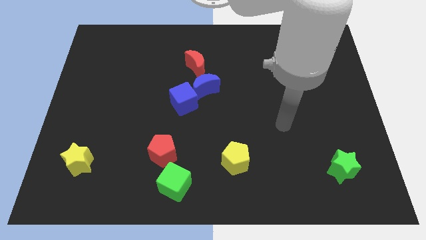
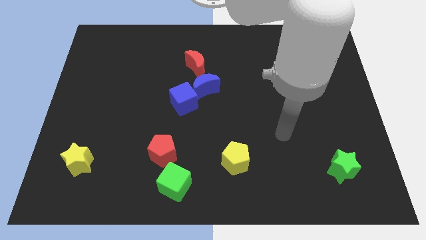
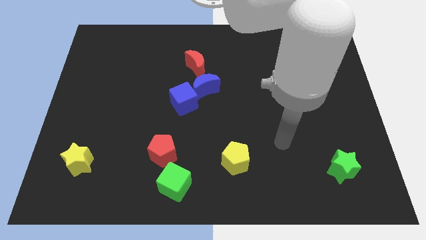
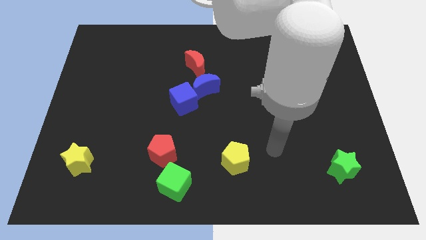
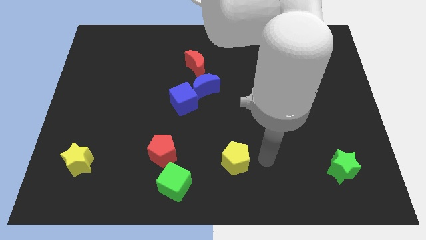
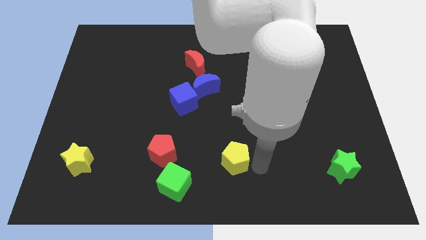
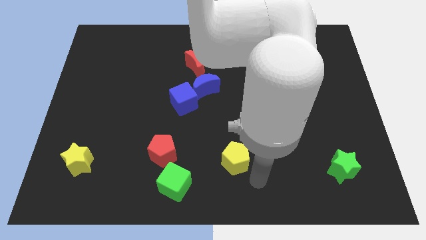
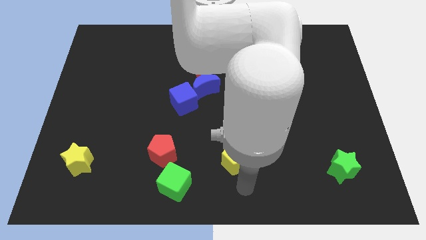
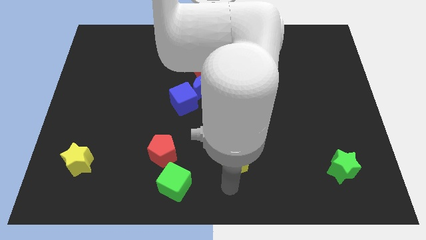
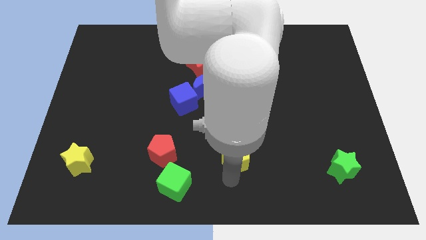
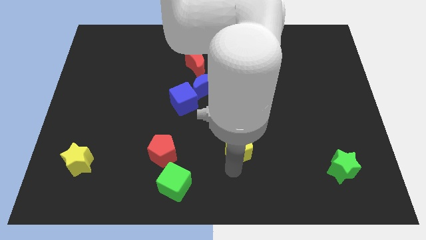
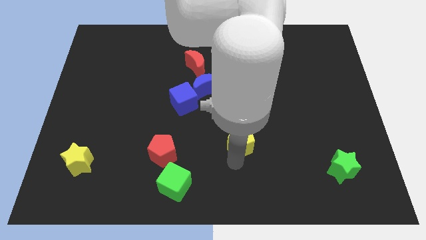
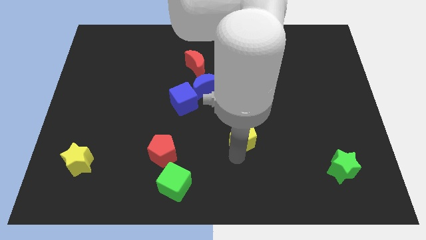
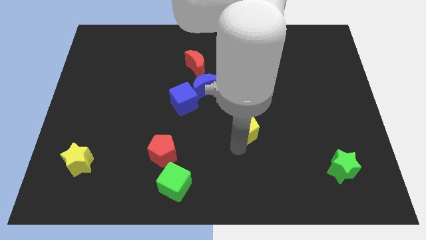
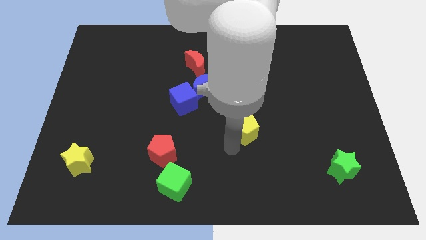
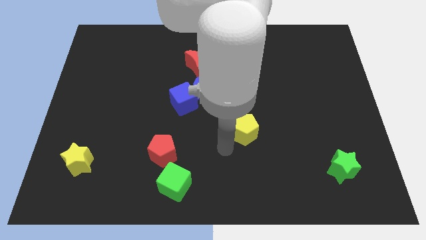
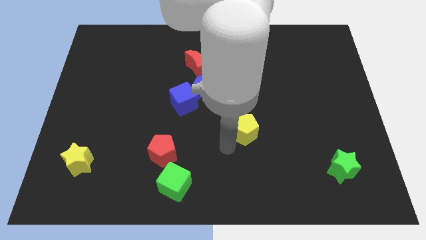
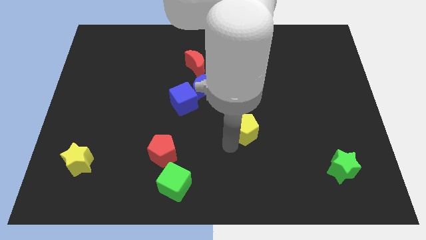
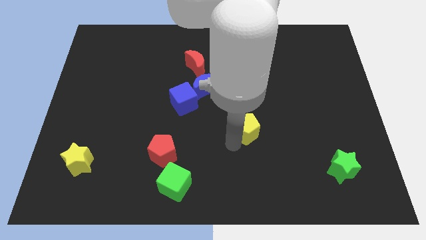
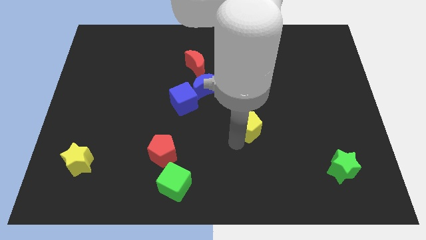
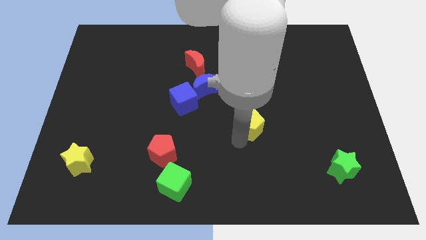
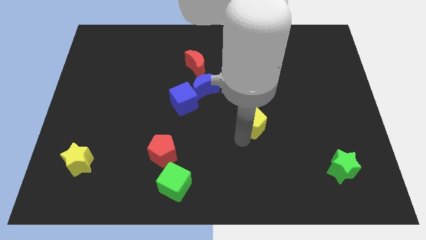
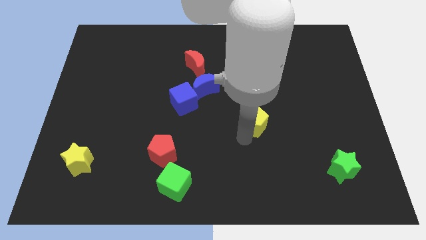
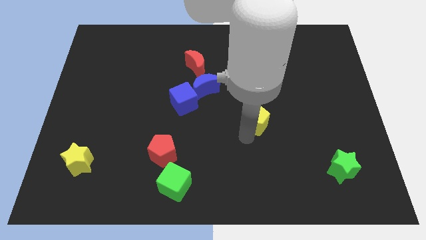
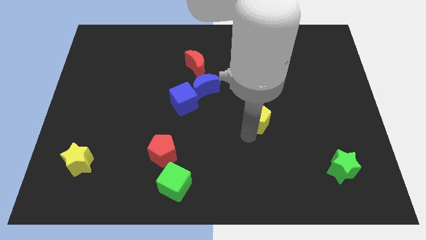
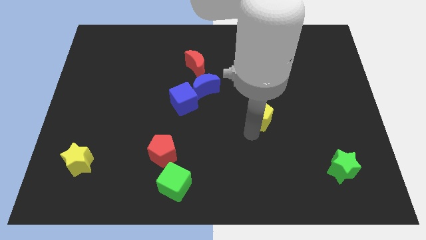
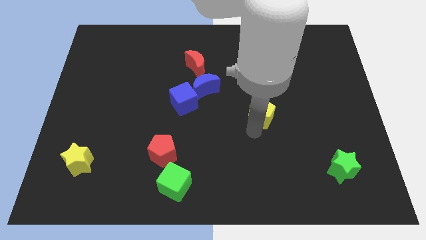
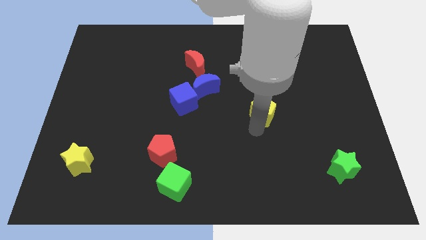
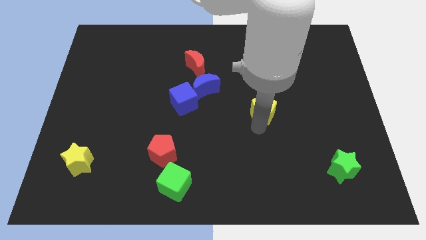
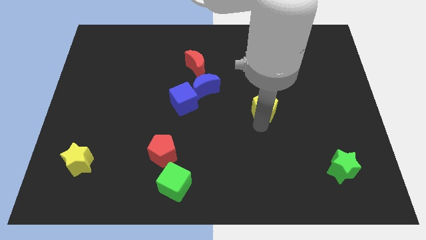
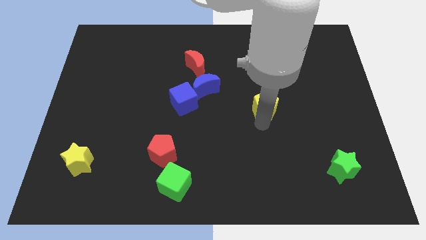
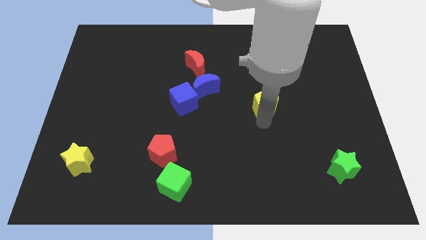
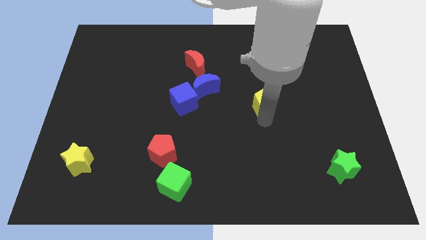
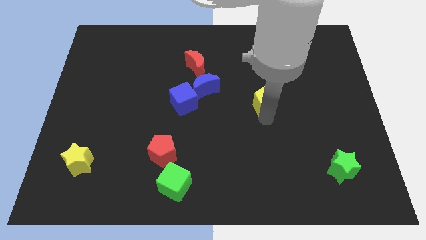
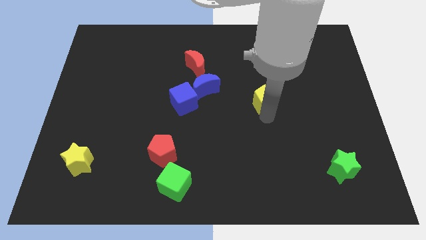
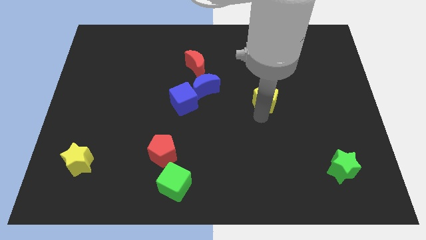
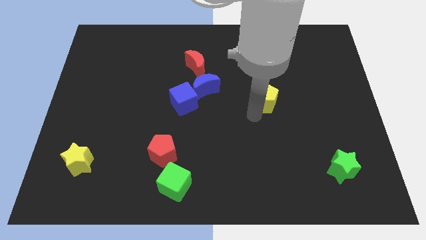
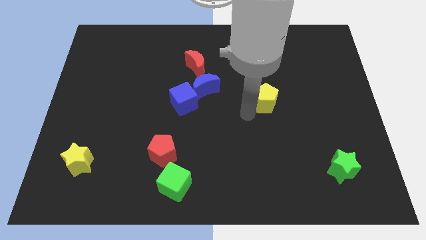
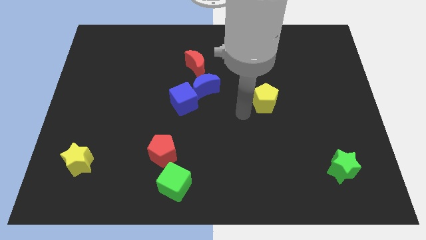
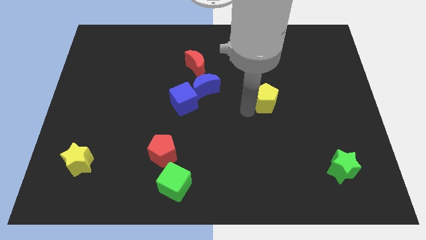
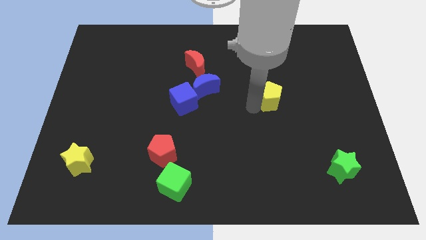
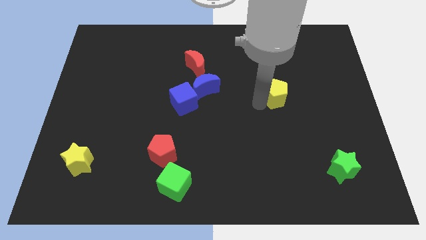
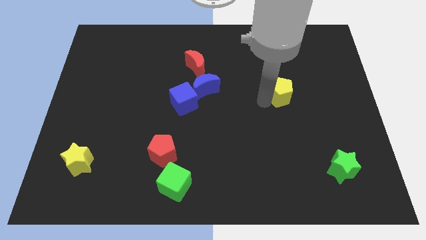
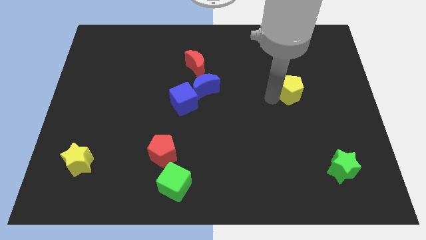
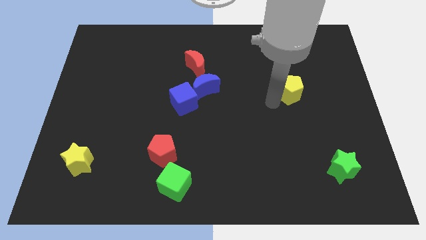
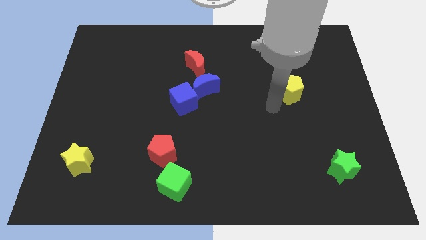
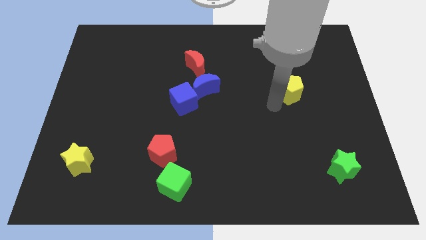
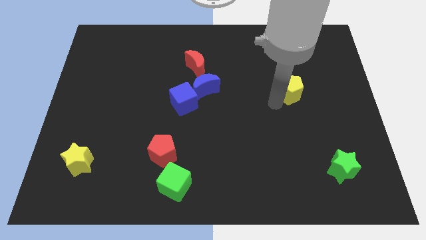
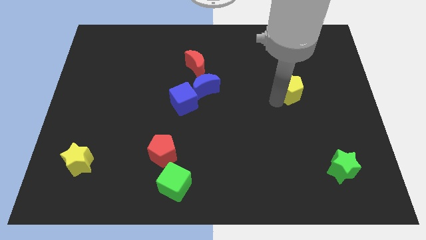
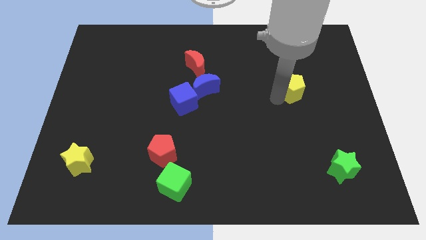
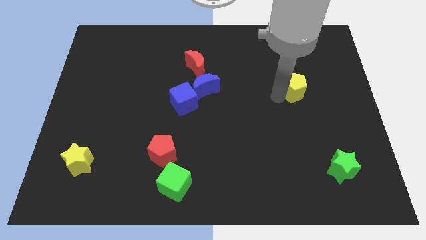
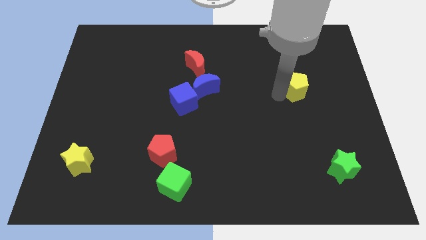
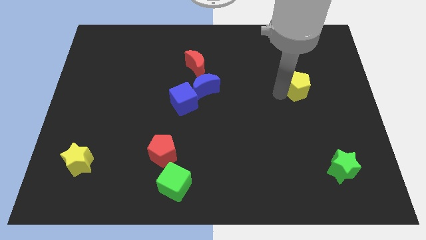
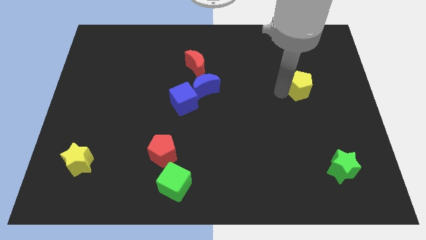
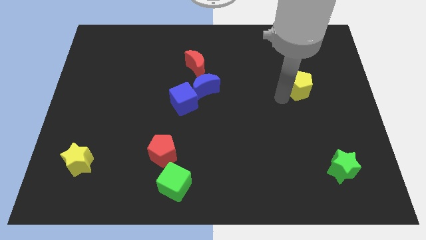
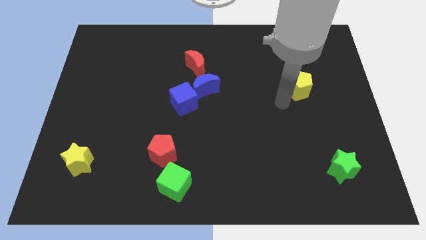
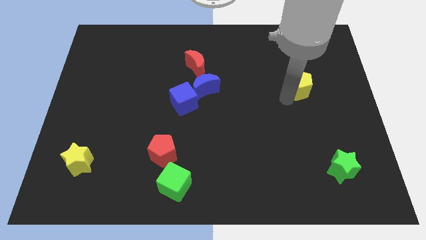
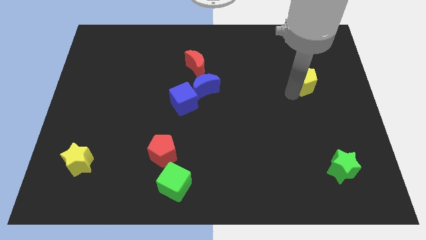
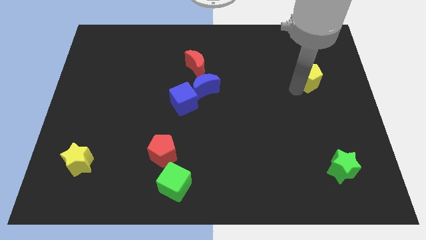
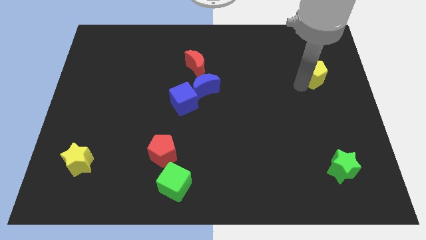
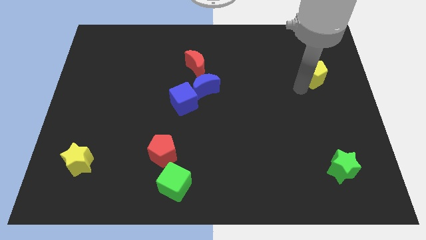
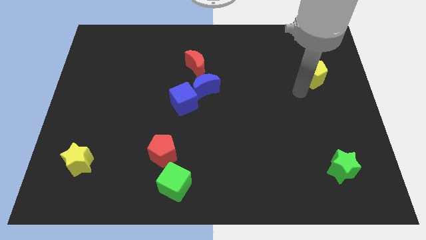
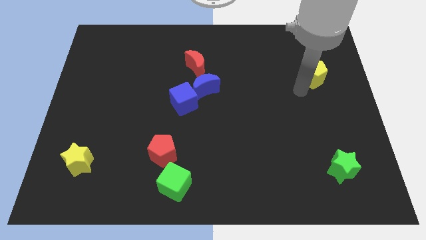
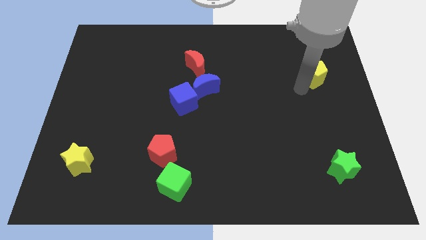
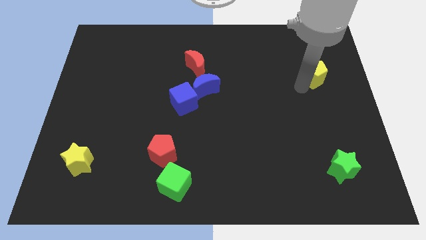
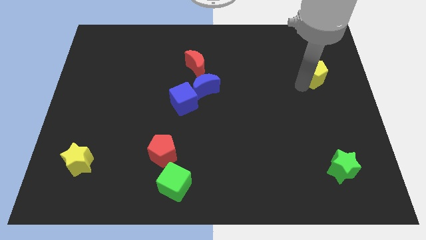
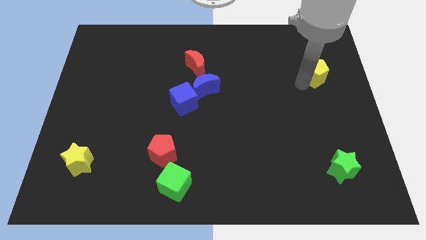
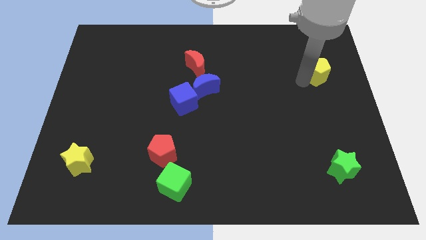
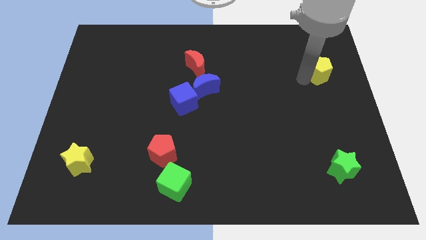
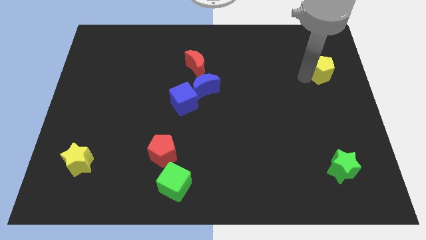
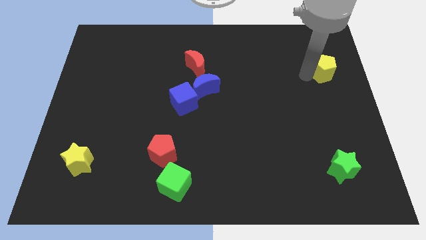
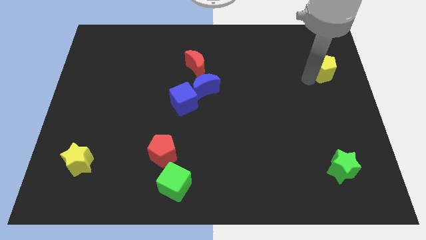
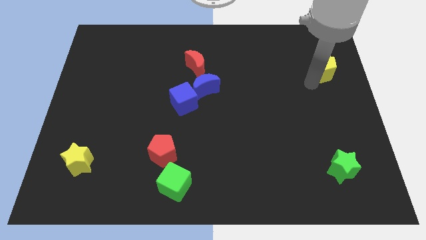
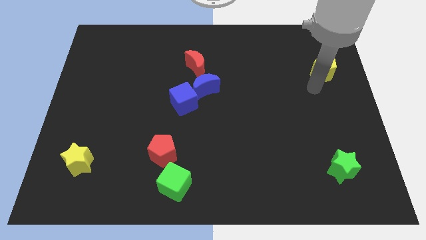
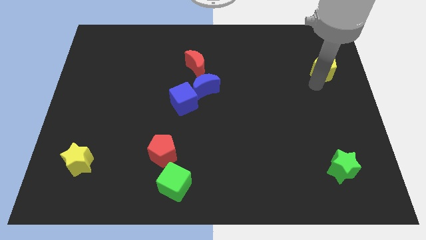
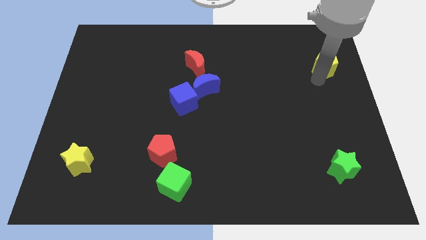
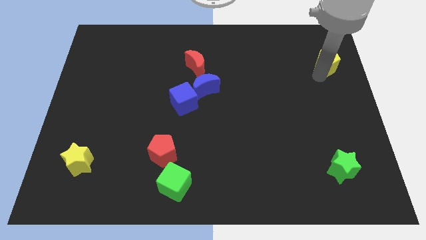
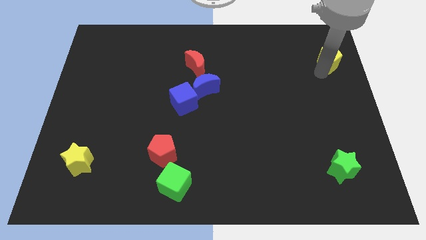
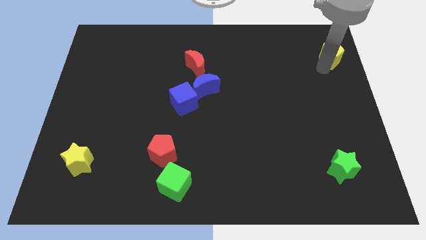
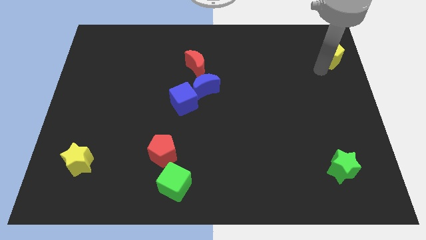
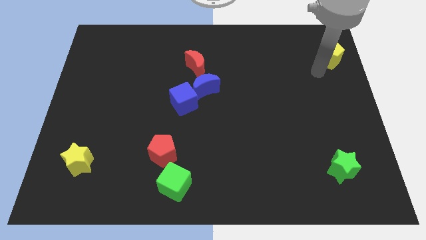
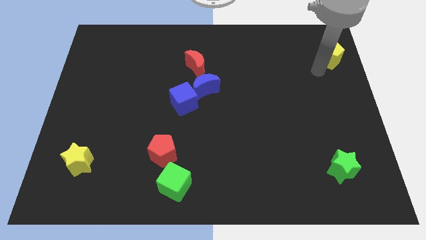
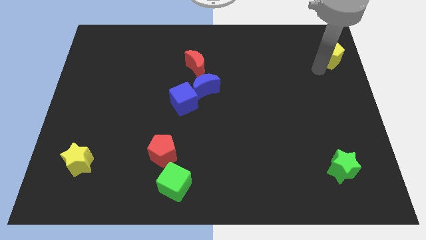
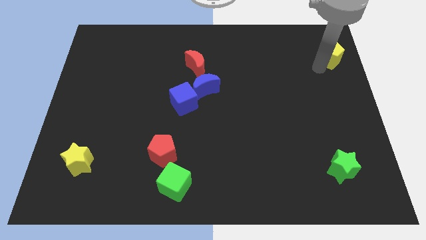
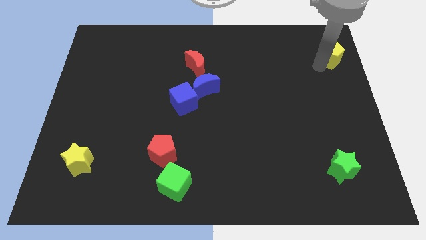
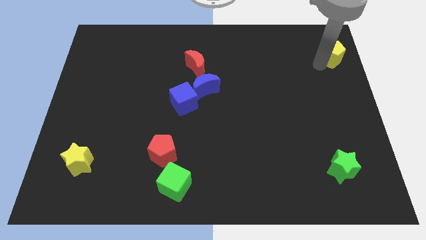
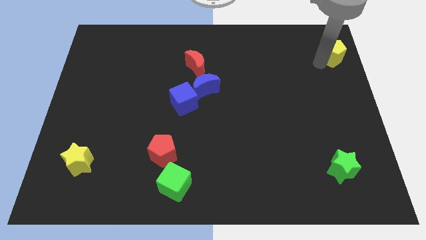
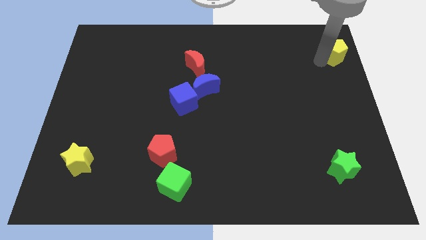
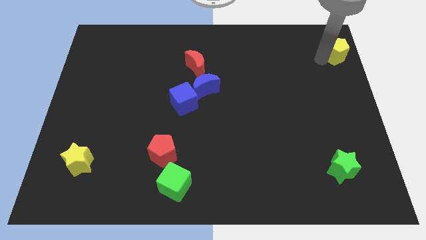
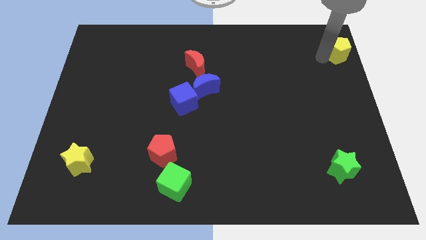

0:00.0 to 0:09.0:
push the yellow pentagon to the top right corner
